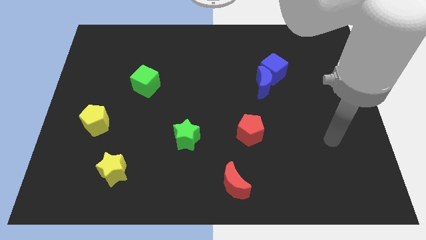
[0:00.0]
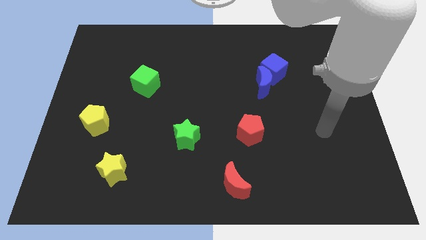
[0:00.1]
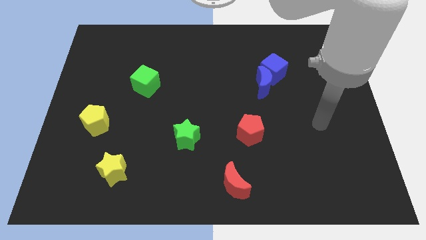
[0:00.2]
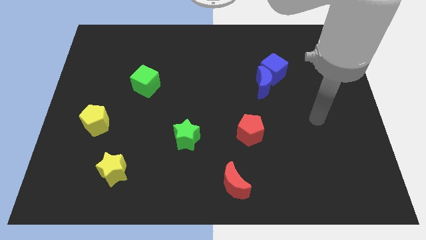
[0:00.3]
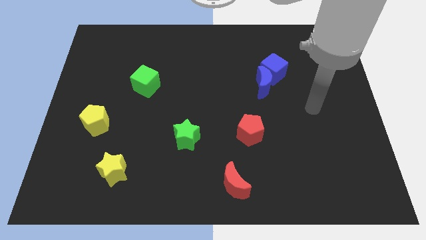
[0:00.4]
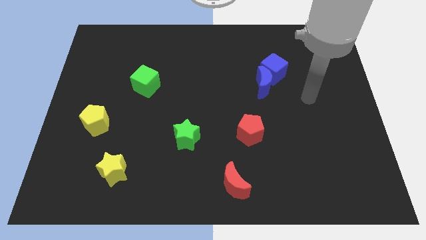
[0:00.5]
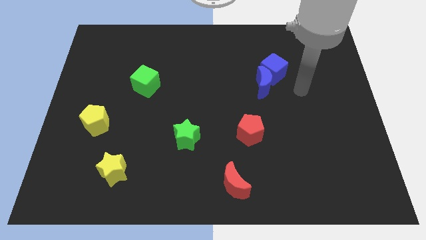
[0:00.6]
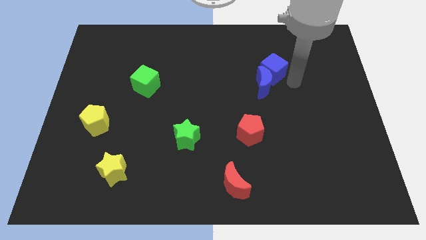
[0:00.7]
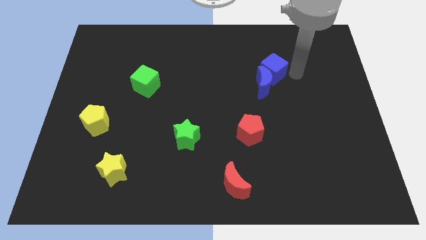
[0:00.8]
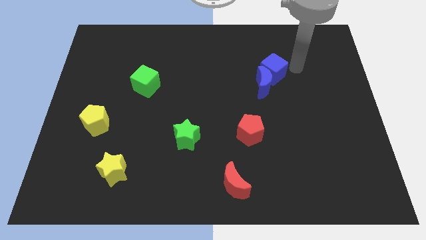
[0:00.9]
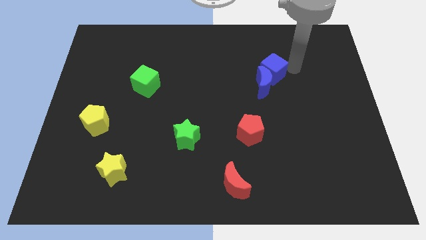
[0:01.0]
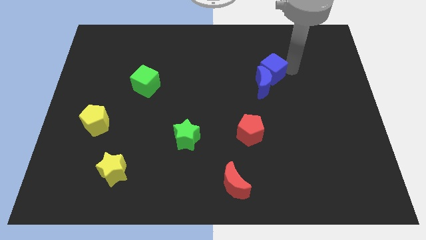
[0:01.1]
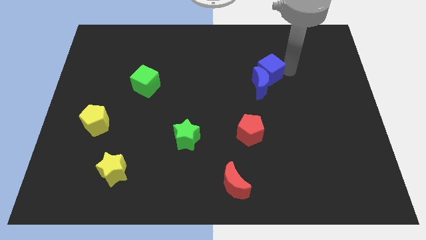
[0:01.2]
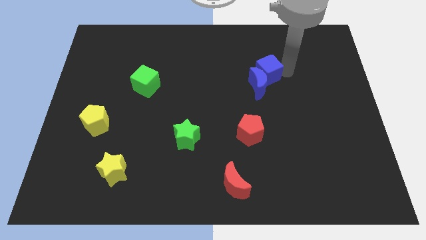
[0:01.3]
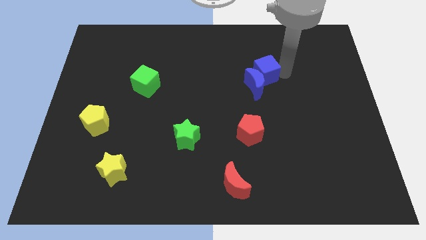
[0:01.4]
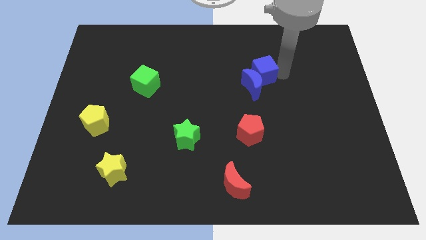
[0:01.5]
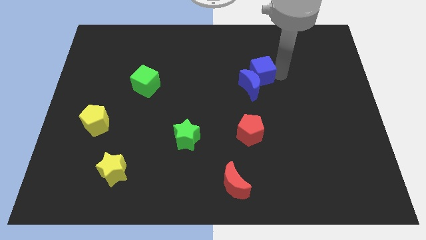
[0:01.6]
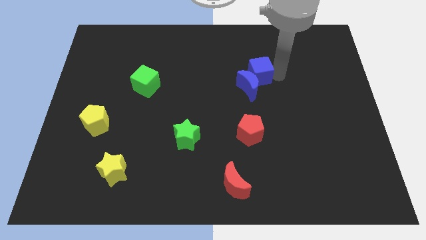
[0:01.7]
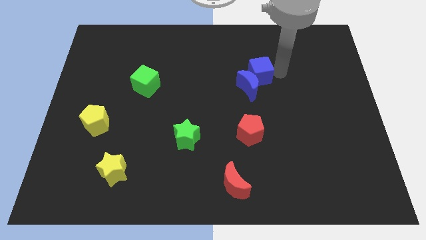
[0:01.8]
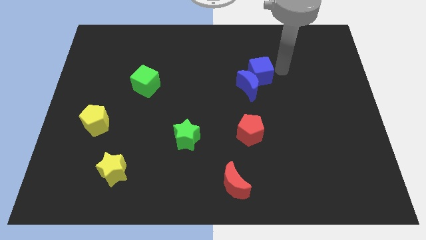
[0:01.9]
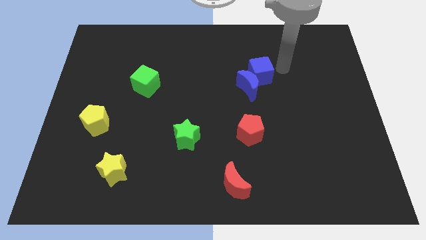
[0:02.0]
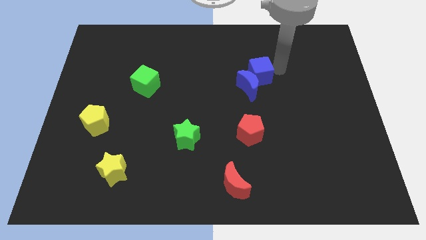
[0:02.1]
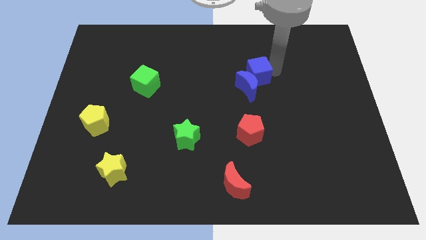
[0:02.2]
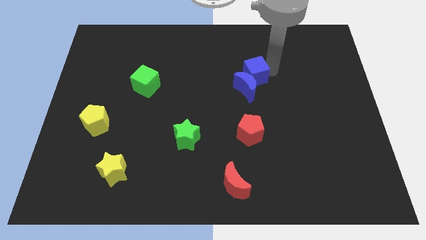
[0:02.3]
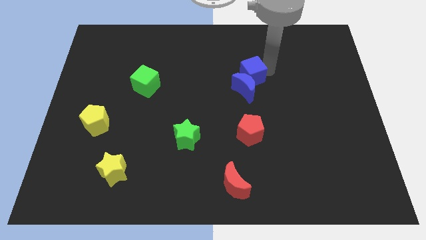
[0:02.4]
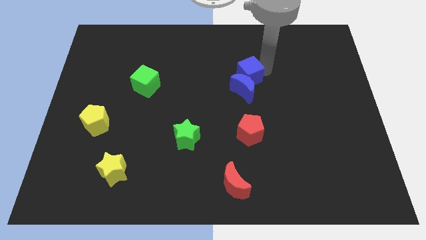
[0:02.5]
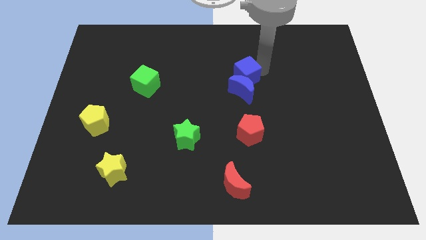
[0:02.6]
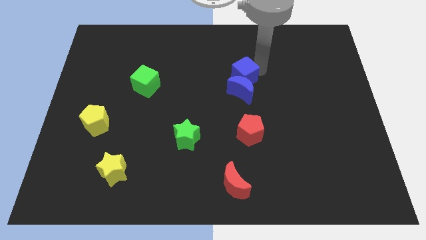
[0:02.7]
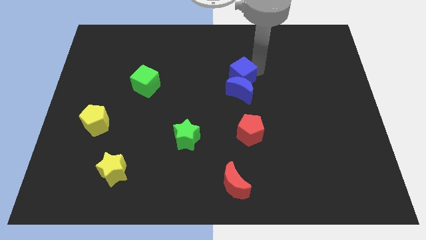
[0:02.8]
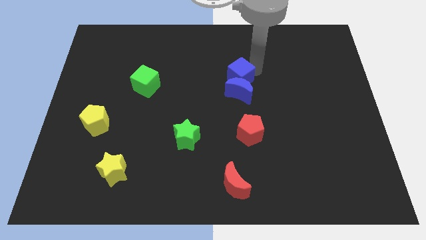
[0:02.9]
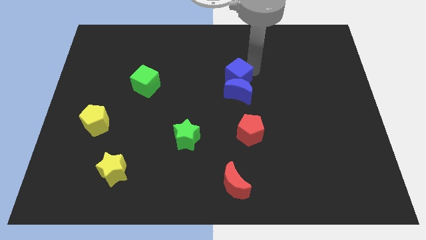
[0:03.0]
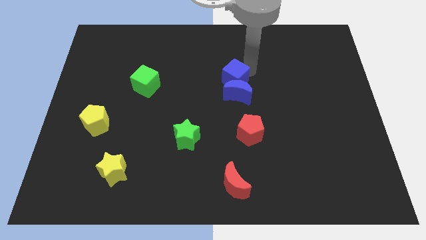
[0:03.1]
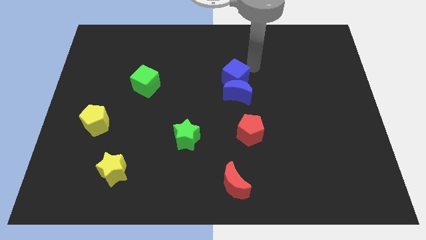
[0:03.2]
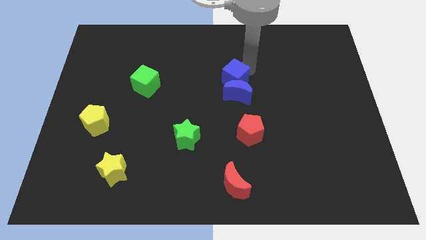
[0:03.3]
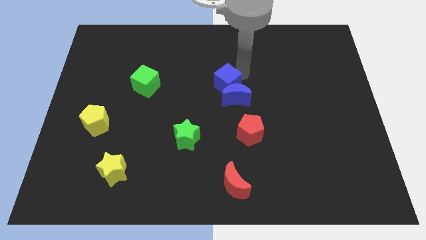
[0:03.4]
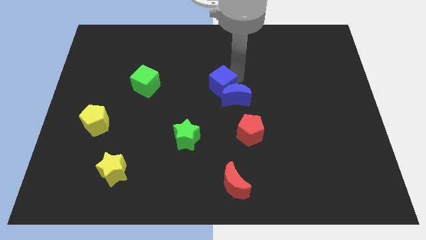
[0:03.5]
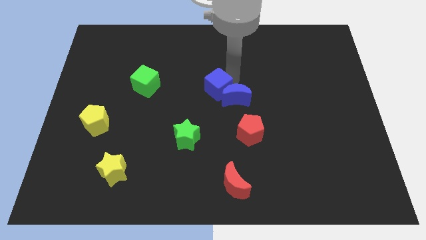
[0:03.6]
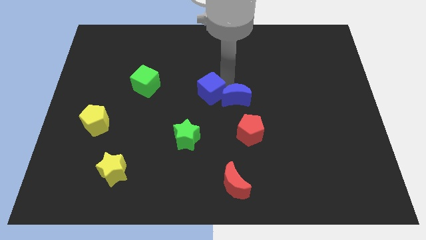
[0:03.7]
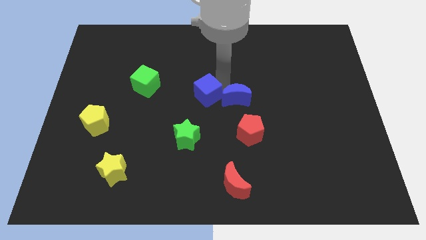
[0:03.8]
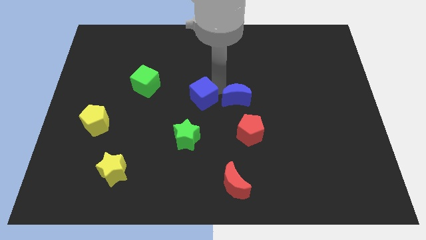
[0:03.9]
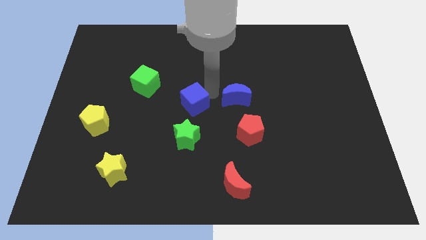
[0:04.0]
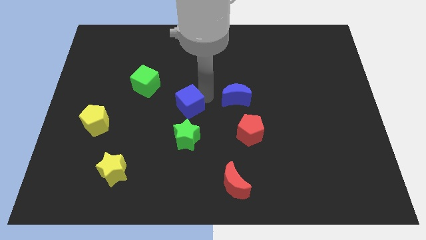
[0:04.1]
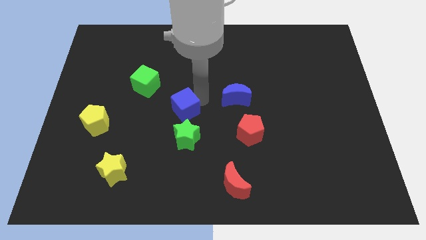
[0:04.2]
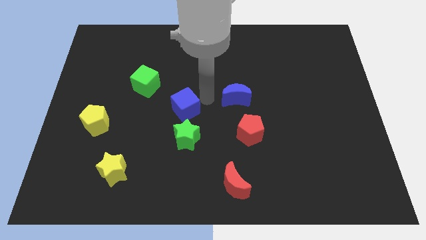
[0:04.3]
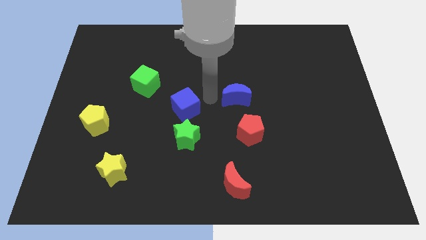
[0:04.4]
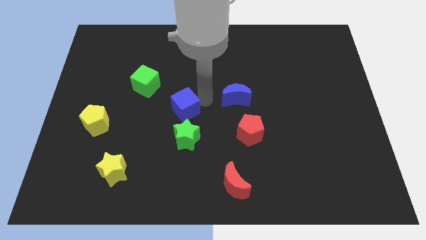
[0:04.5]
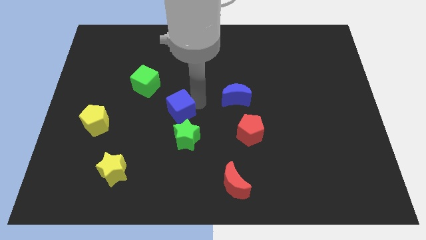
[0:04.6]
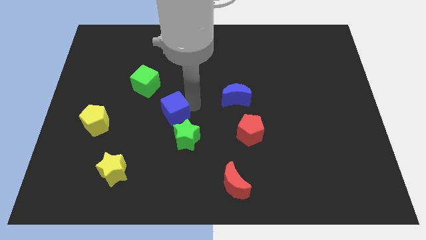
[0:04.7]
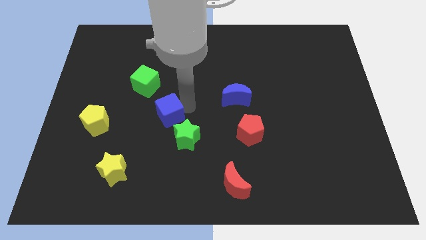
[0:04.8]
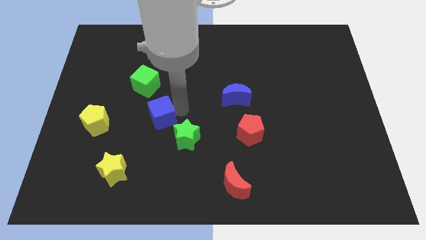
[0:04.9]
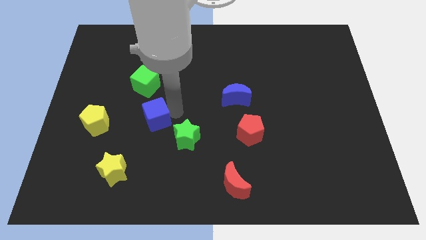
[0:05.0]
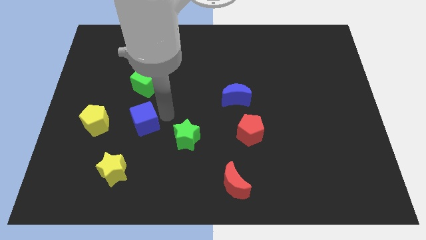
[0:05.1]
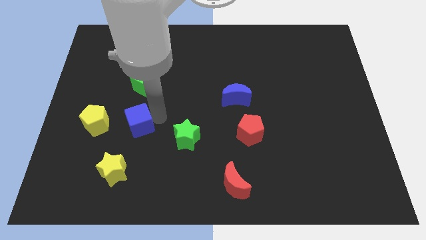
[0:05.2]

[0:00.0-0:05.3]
slide the blue cube to the top side of the yellow star

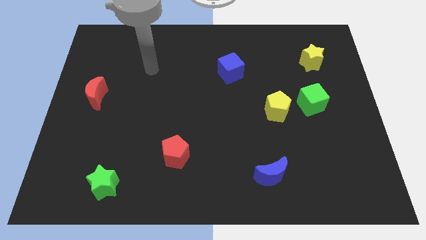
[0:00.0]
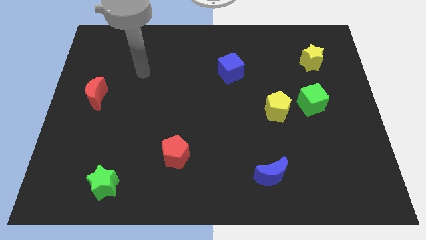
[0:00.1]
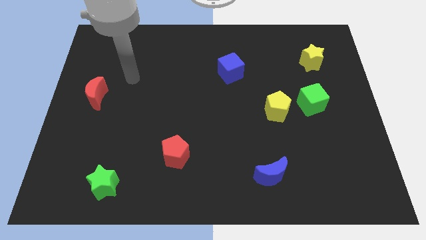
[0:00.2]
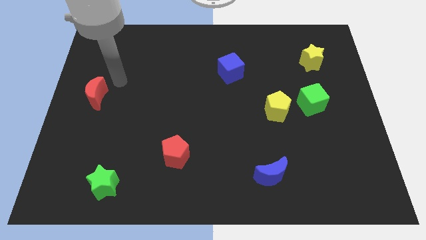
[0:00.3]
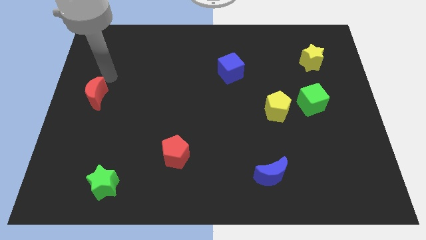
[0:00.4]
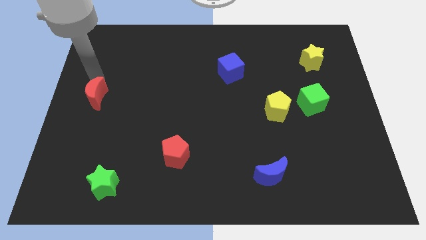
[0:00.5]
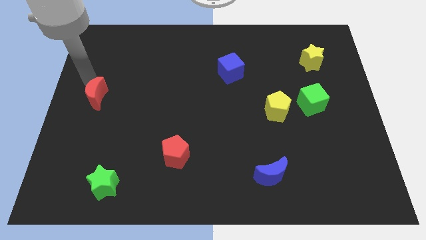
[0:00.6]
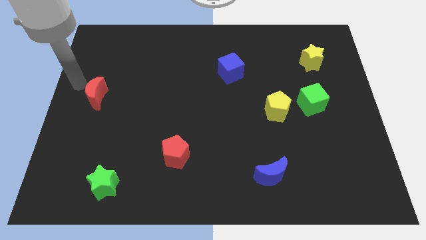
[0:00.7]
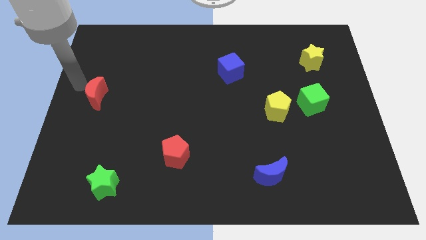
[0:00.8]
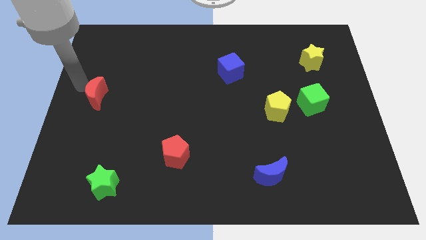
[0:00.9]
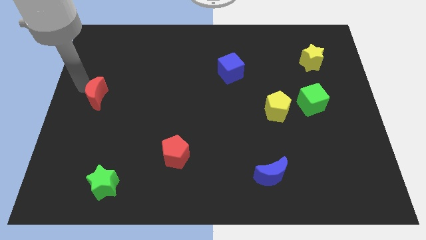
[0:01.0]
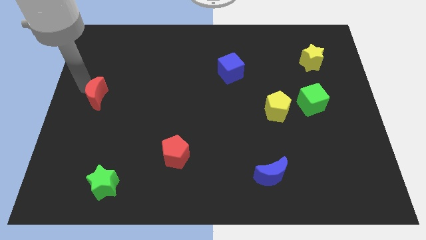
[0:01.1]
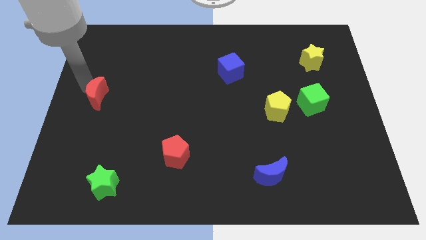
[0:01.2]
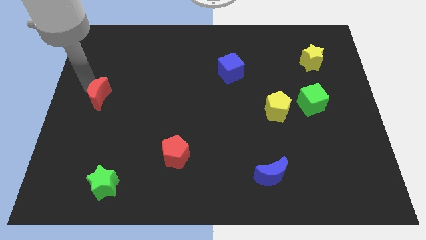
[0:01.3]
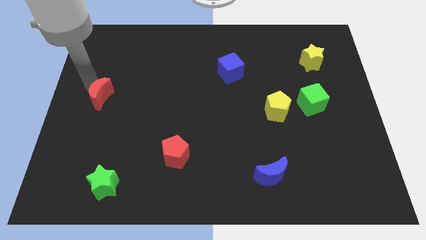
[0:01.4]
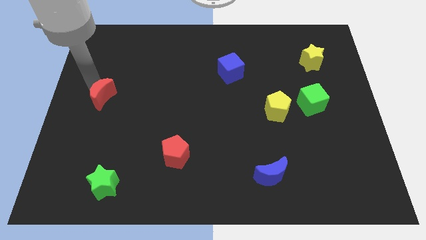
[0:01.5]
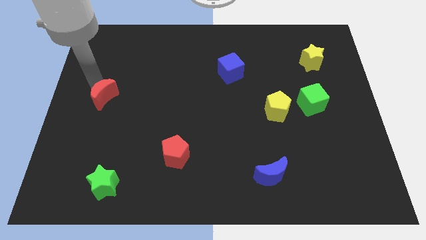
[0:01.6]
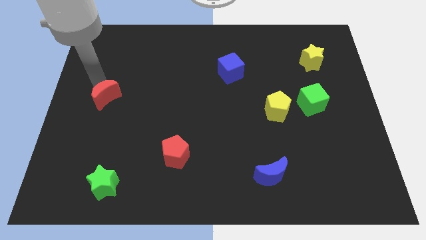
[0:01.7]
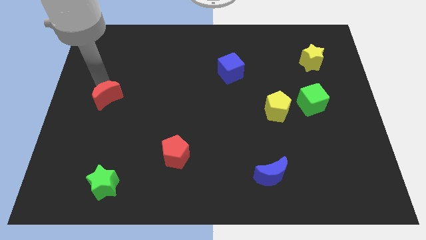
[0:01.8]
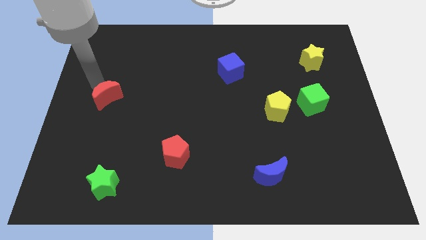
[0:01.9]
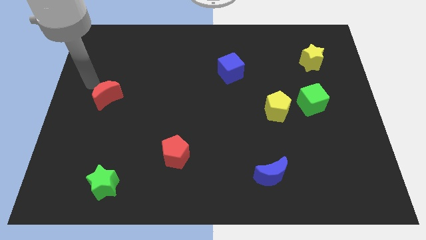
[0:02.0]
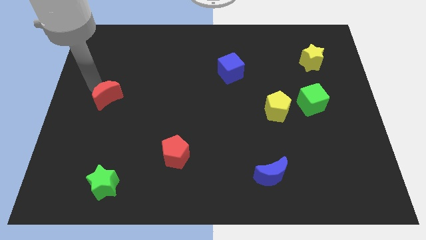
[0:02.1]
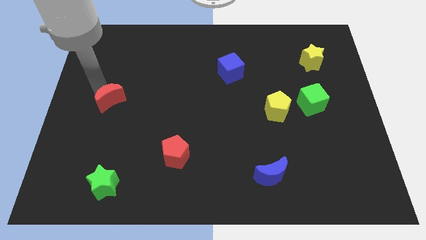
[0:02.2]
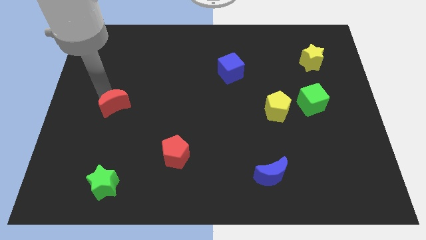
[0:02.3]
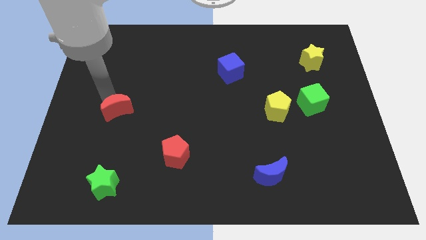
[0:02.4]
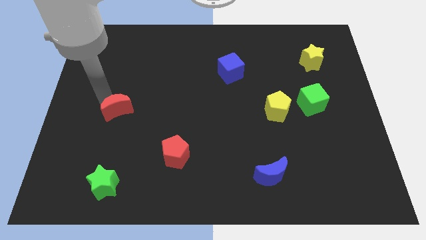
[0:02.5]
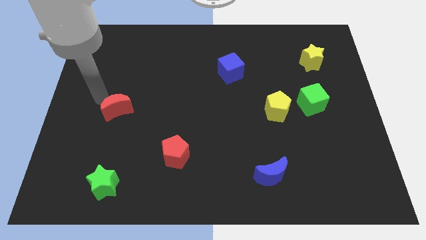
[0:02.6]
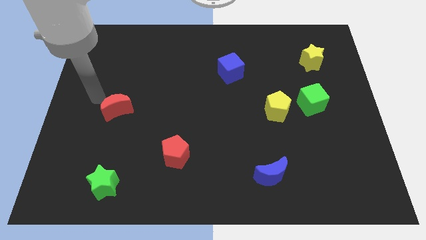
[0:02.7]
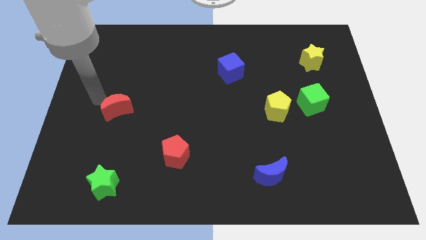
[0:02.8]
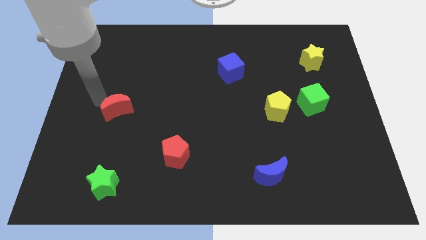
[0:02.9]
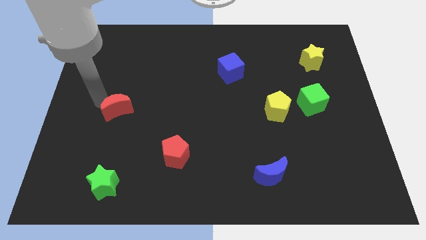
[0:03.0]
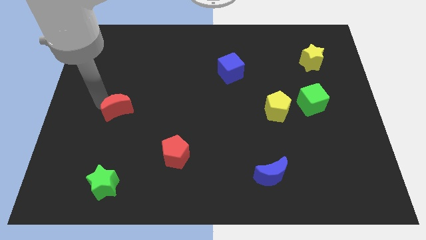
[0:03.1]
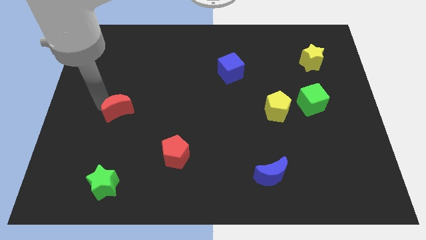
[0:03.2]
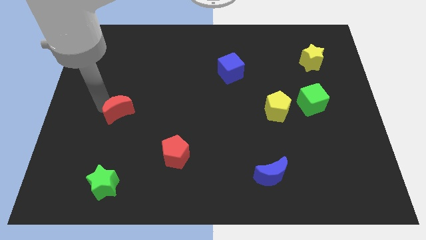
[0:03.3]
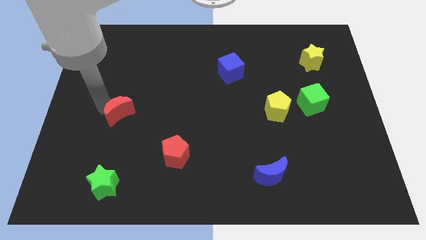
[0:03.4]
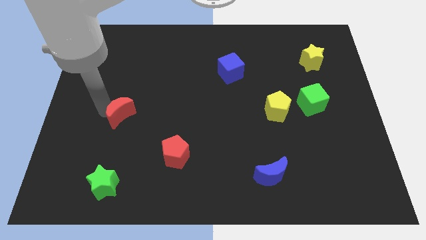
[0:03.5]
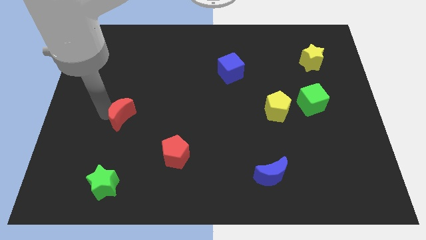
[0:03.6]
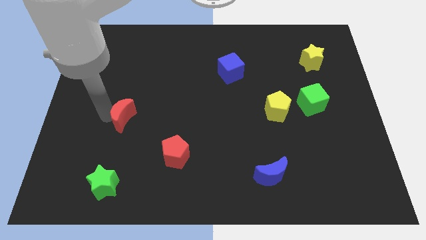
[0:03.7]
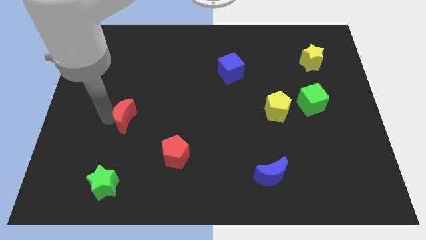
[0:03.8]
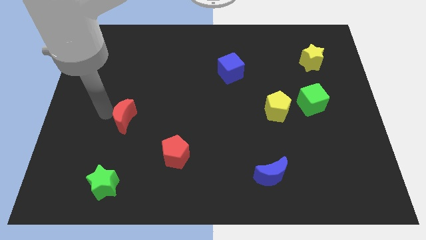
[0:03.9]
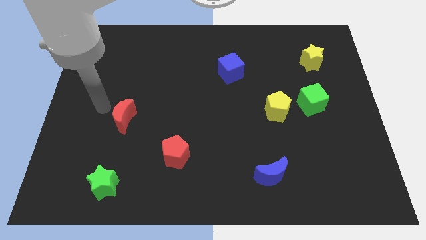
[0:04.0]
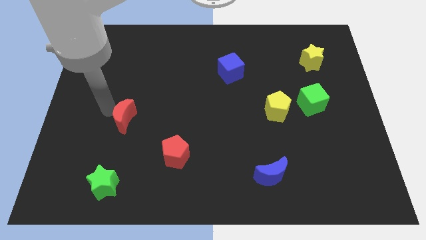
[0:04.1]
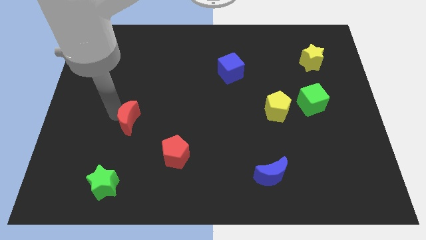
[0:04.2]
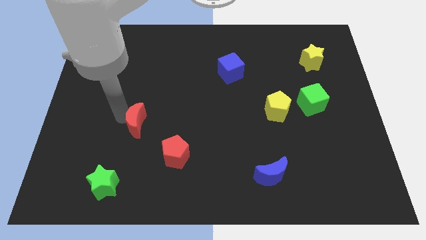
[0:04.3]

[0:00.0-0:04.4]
move the red moon diagonally up and to the left of the red pentagon
